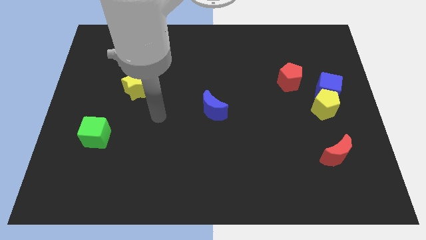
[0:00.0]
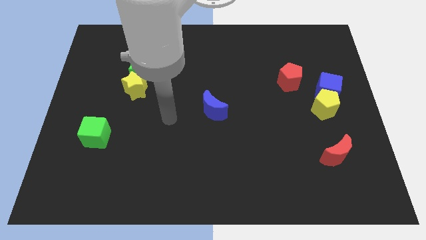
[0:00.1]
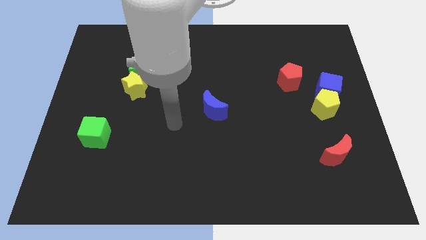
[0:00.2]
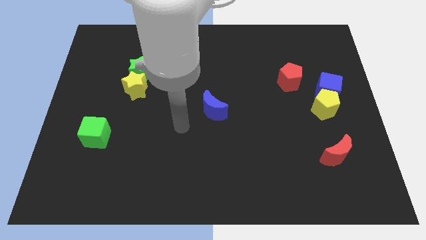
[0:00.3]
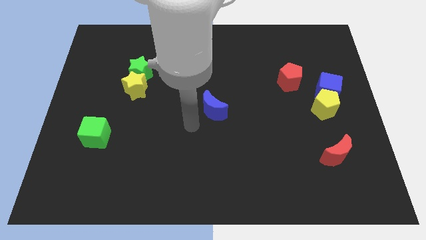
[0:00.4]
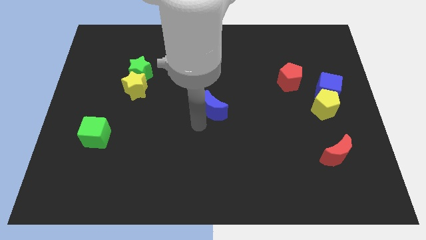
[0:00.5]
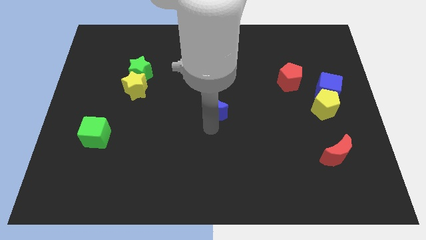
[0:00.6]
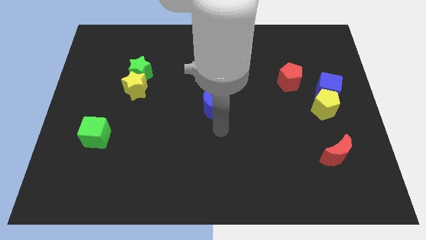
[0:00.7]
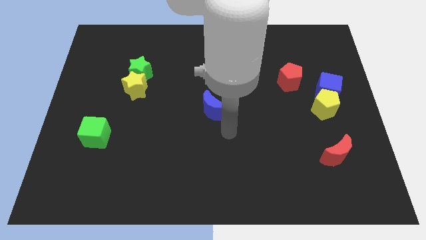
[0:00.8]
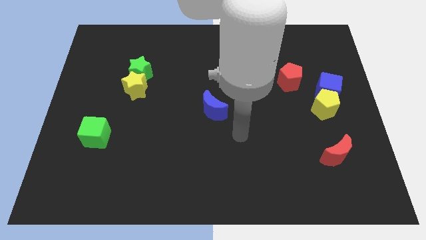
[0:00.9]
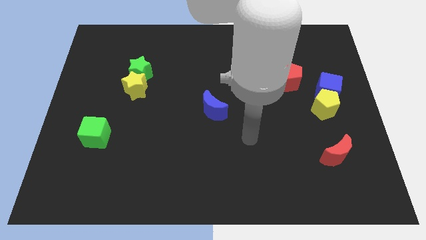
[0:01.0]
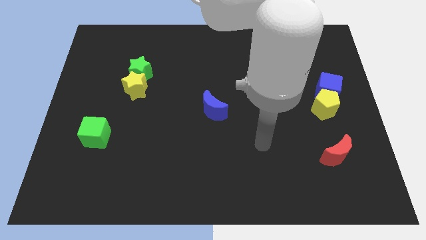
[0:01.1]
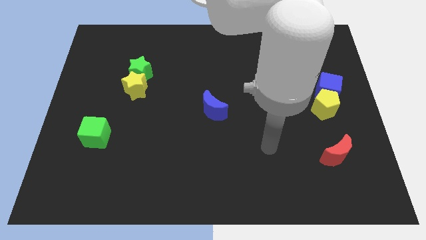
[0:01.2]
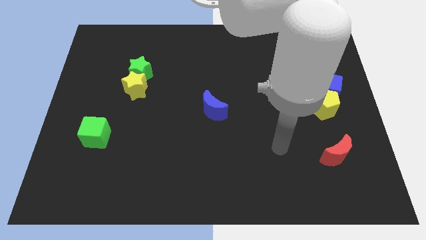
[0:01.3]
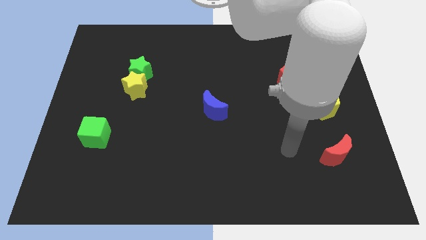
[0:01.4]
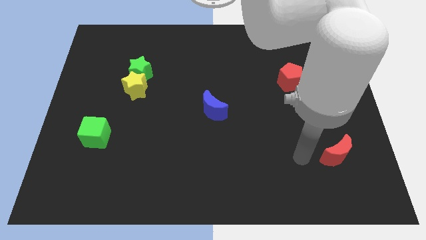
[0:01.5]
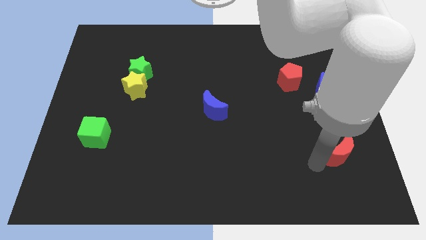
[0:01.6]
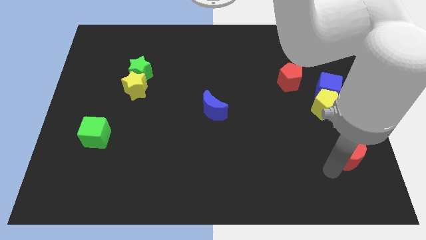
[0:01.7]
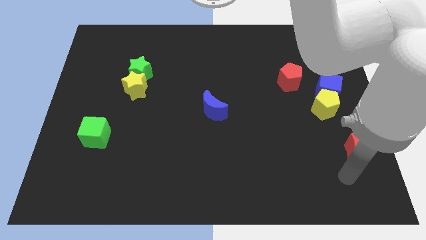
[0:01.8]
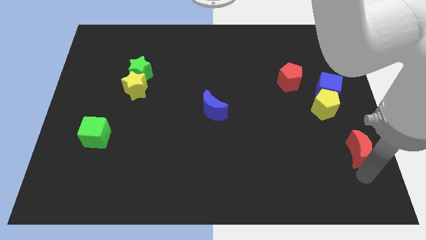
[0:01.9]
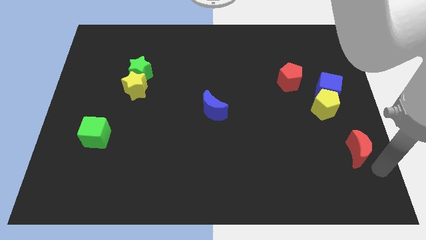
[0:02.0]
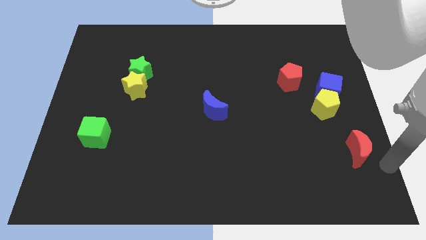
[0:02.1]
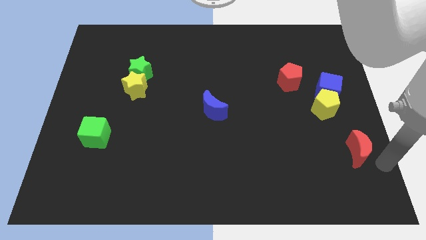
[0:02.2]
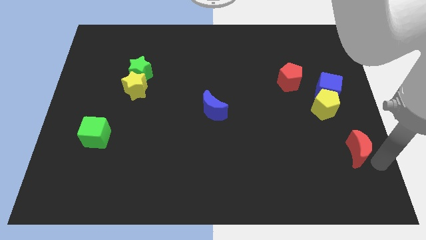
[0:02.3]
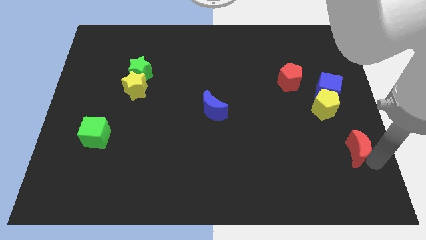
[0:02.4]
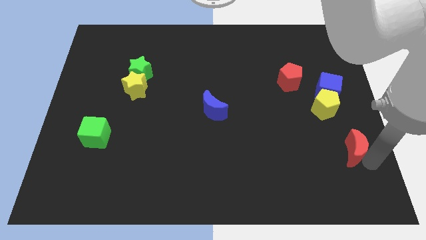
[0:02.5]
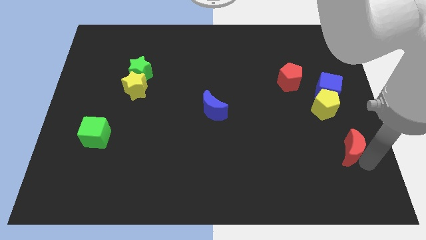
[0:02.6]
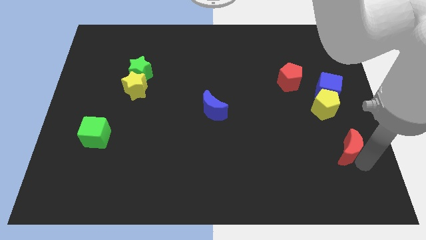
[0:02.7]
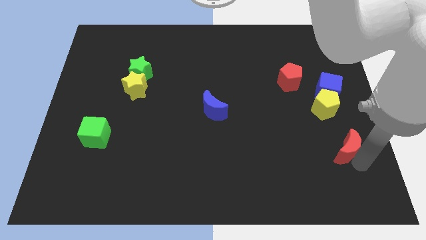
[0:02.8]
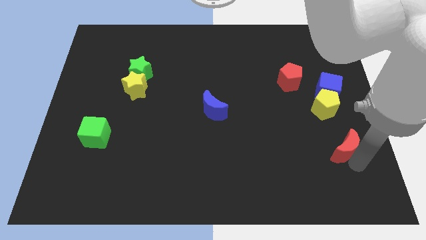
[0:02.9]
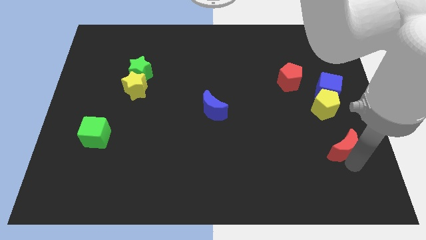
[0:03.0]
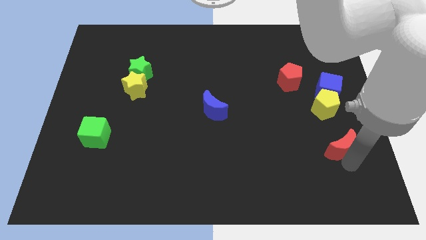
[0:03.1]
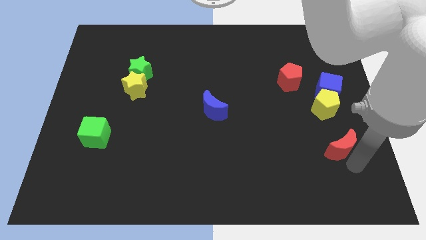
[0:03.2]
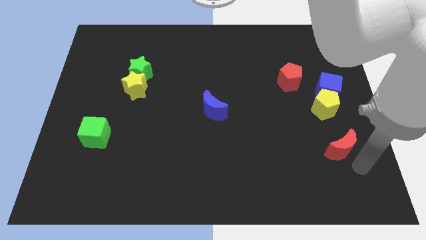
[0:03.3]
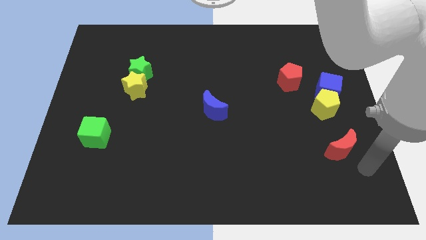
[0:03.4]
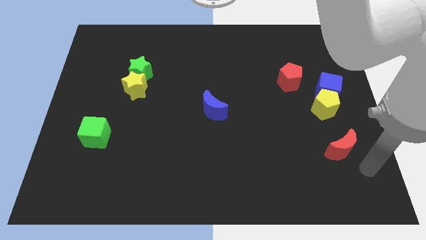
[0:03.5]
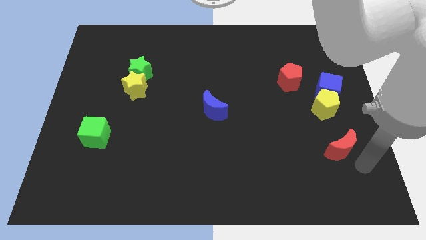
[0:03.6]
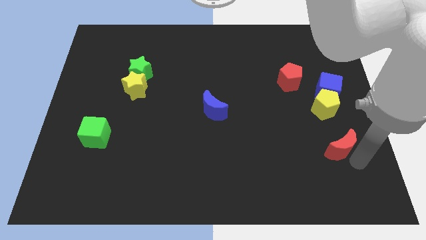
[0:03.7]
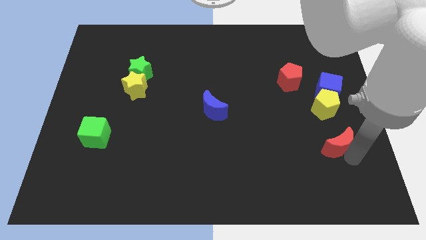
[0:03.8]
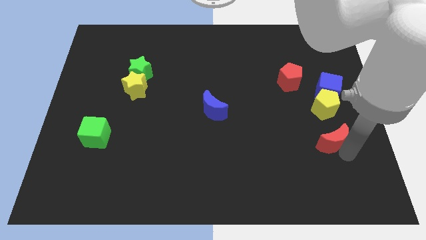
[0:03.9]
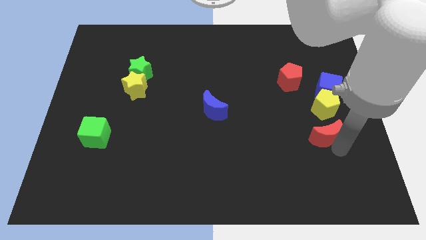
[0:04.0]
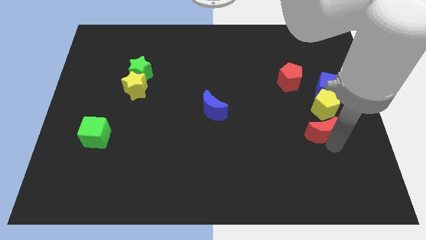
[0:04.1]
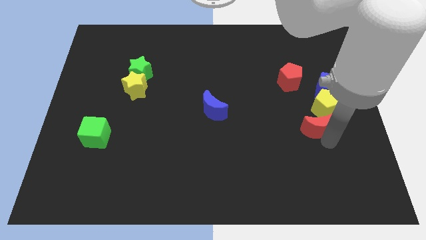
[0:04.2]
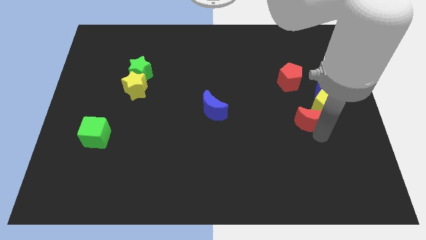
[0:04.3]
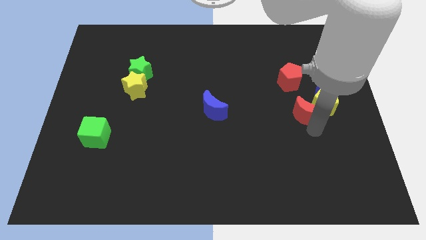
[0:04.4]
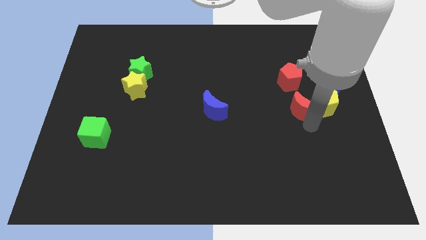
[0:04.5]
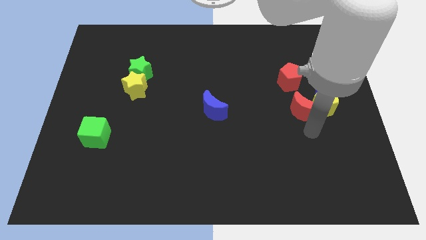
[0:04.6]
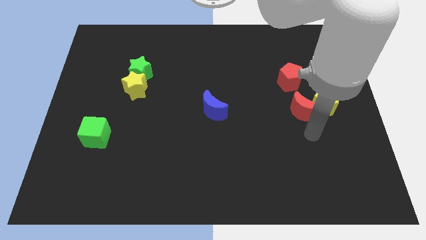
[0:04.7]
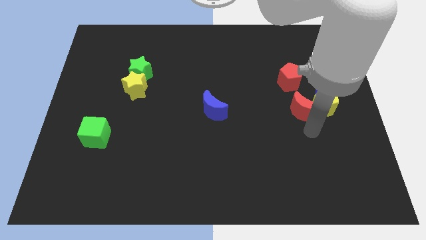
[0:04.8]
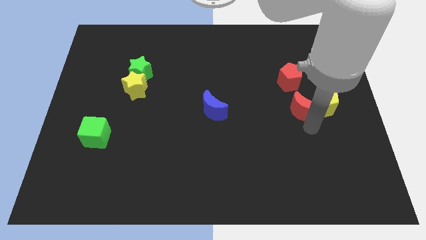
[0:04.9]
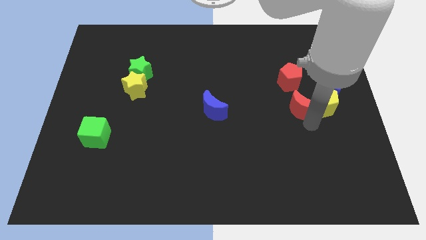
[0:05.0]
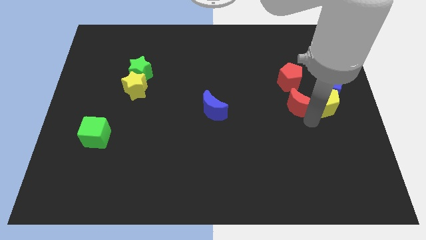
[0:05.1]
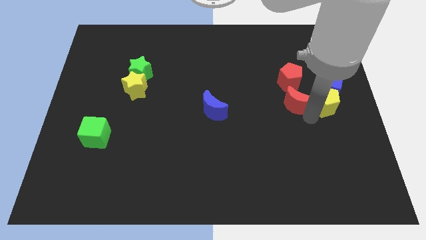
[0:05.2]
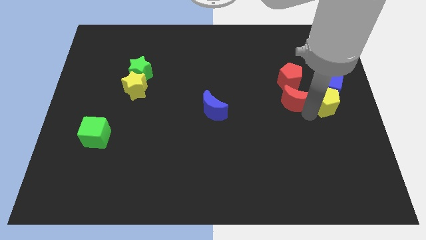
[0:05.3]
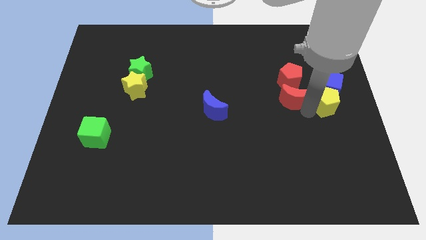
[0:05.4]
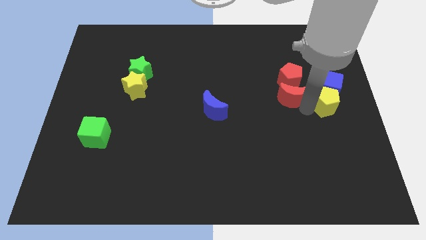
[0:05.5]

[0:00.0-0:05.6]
move the red moon next to the red pentagon

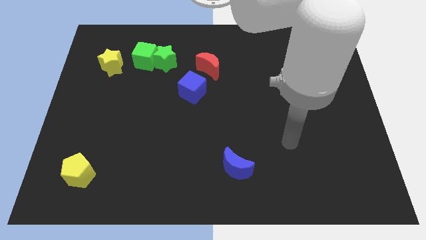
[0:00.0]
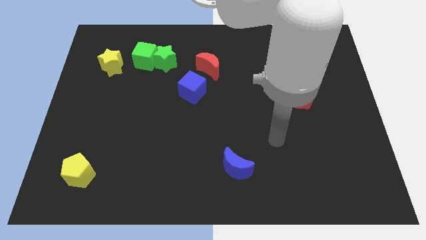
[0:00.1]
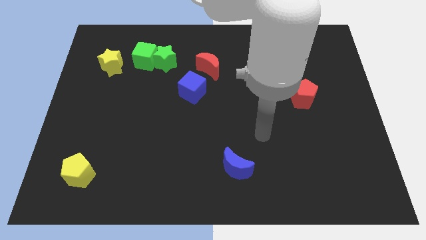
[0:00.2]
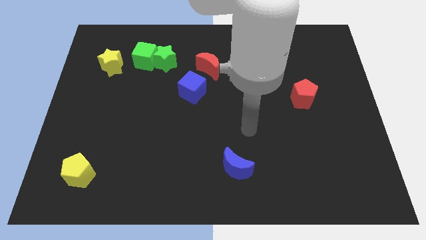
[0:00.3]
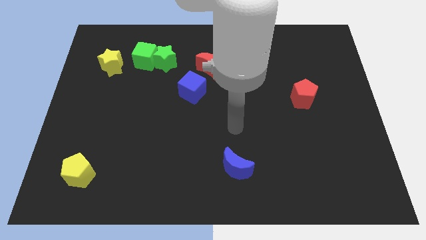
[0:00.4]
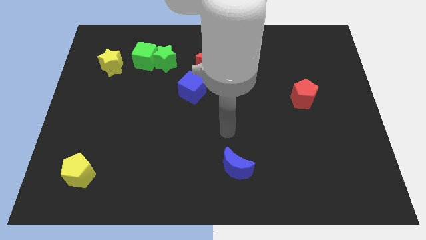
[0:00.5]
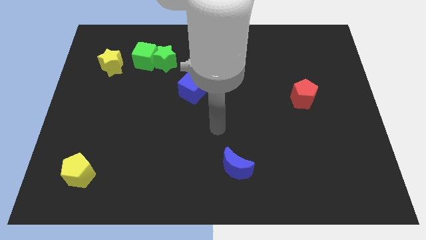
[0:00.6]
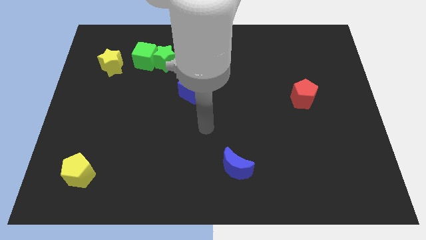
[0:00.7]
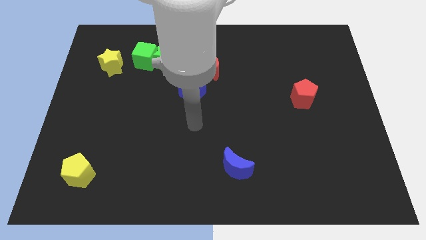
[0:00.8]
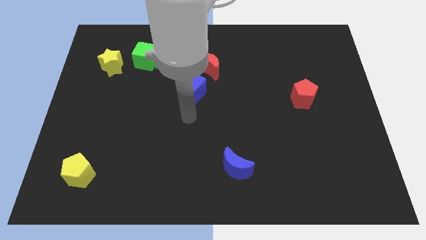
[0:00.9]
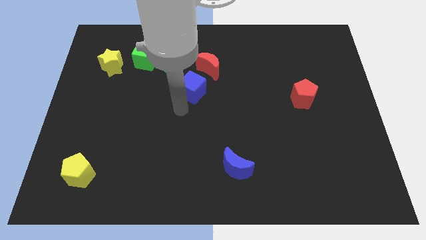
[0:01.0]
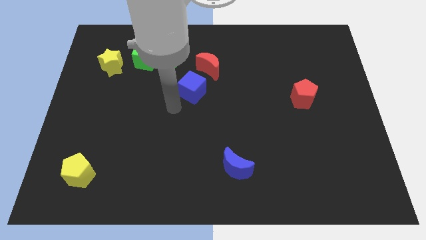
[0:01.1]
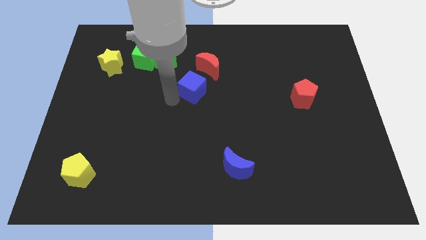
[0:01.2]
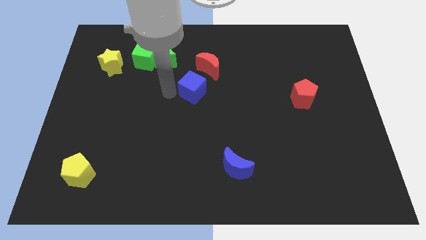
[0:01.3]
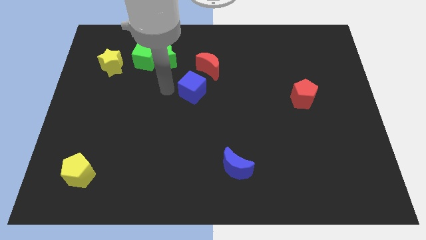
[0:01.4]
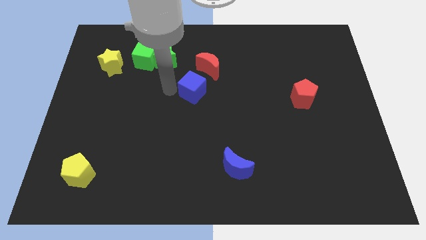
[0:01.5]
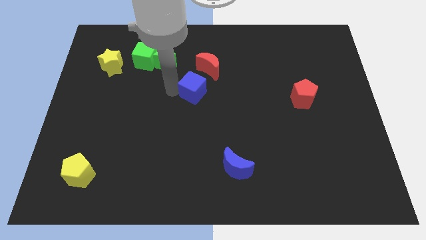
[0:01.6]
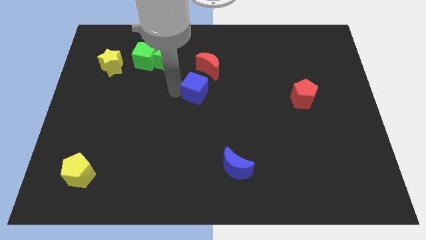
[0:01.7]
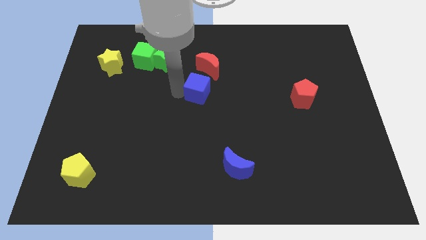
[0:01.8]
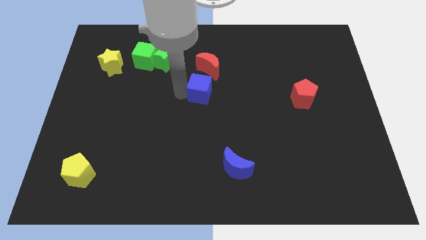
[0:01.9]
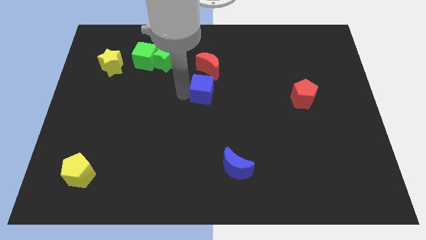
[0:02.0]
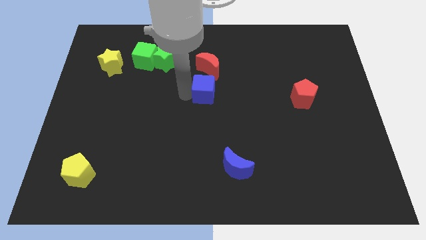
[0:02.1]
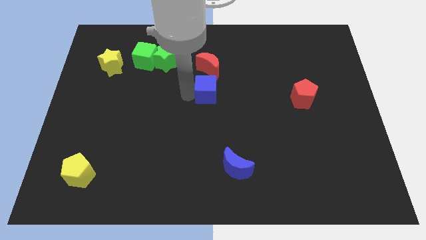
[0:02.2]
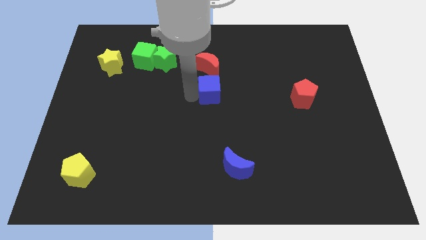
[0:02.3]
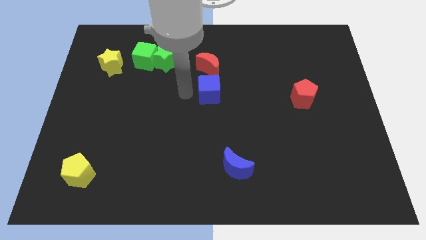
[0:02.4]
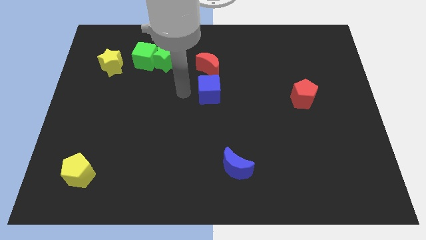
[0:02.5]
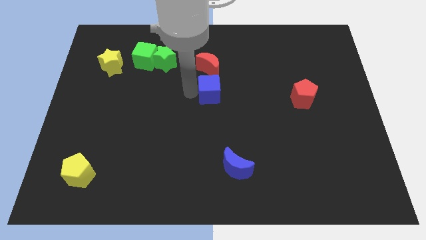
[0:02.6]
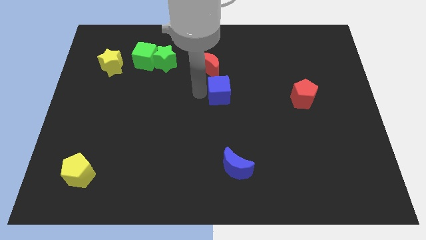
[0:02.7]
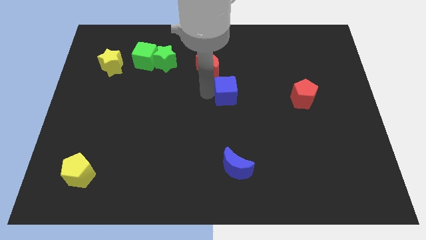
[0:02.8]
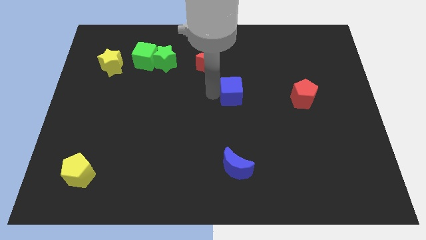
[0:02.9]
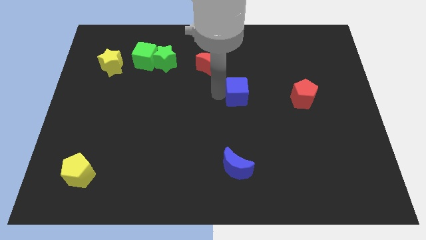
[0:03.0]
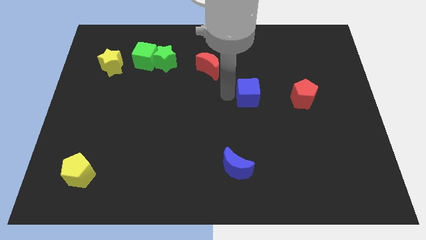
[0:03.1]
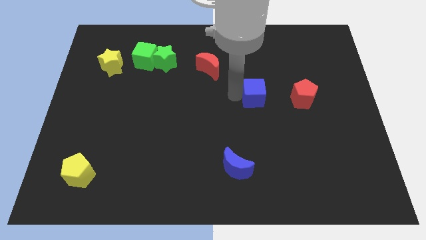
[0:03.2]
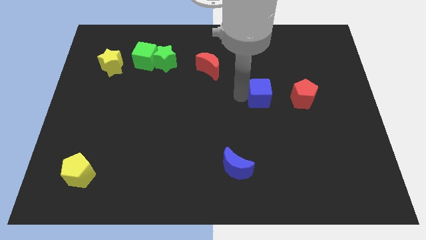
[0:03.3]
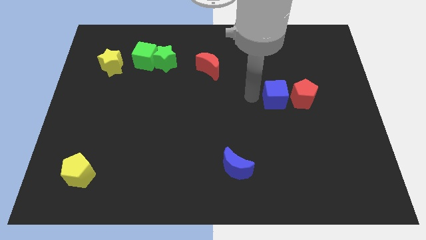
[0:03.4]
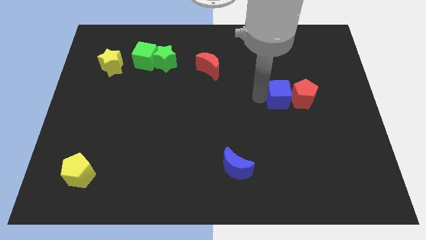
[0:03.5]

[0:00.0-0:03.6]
slide the blue cube close to the red pentagon
